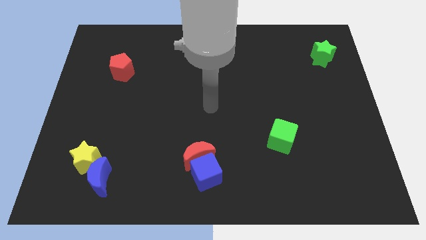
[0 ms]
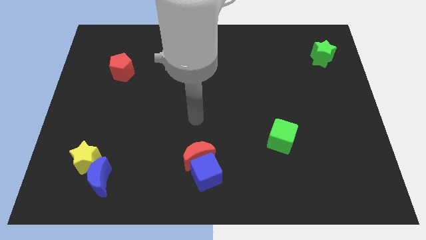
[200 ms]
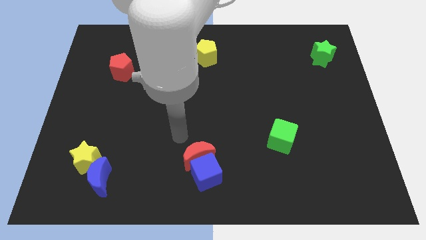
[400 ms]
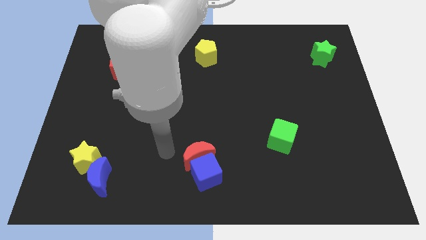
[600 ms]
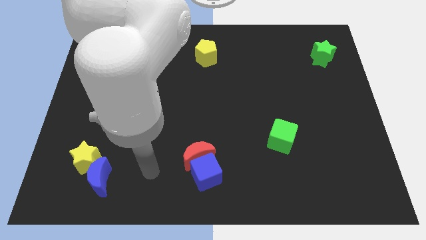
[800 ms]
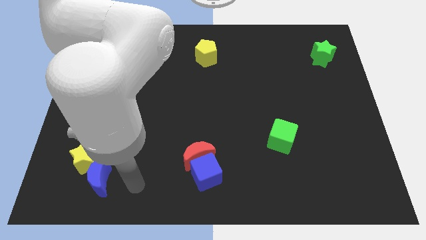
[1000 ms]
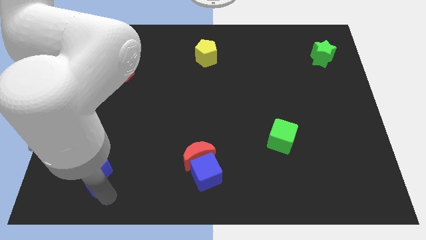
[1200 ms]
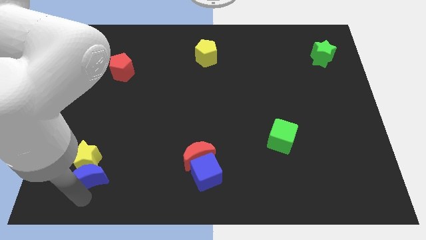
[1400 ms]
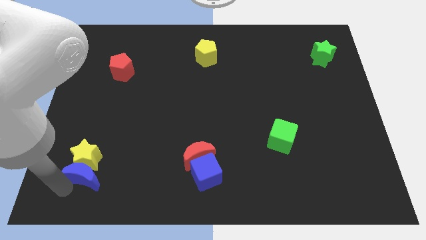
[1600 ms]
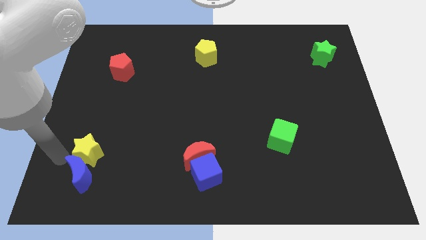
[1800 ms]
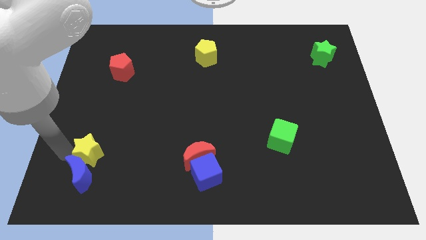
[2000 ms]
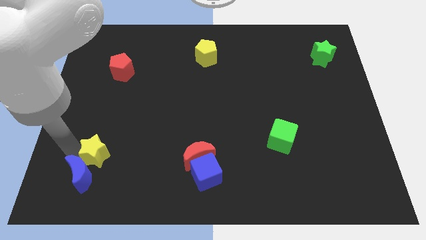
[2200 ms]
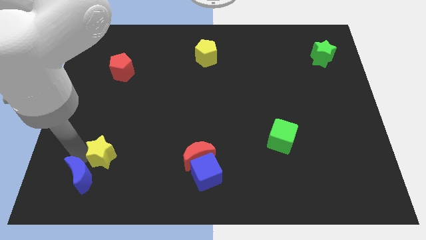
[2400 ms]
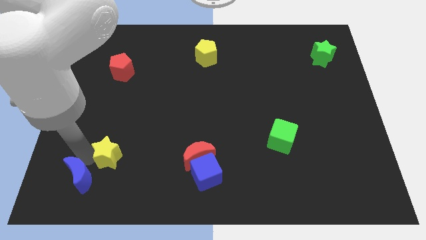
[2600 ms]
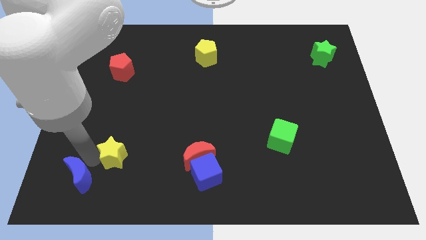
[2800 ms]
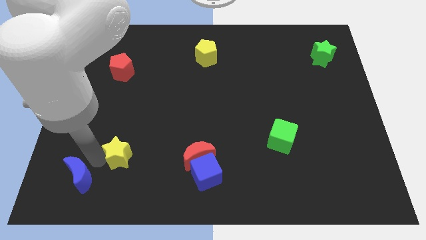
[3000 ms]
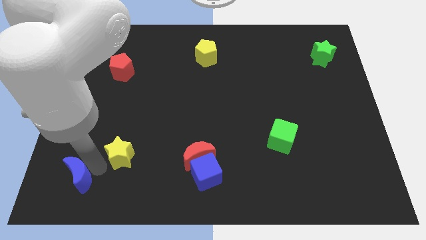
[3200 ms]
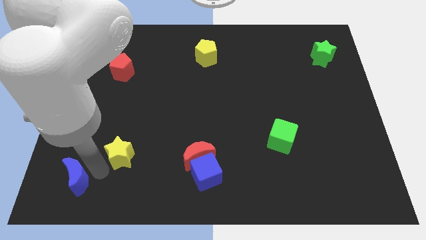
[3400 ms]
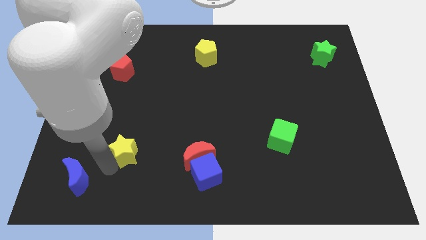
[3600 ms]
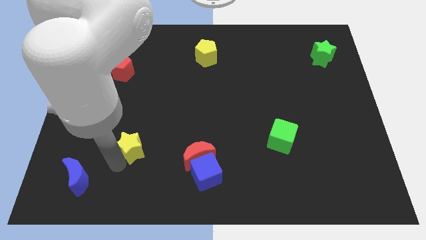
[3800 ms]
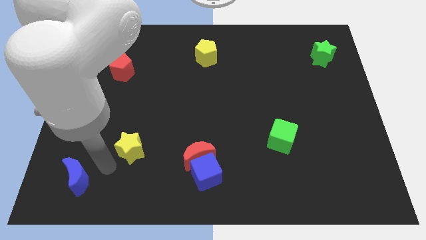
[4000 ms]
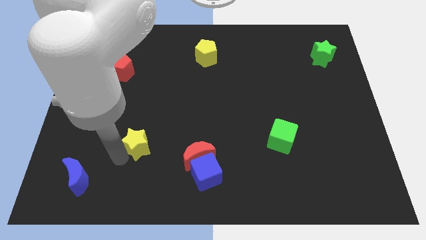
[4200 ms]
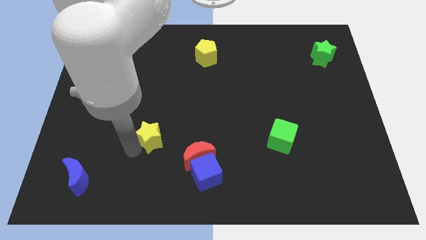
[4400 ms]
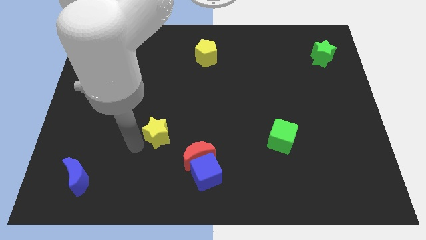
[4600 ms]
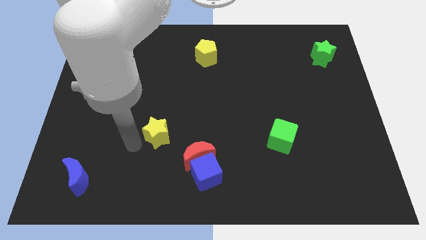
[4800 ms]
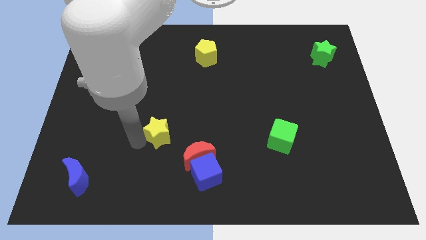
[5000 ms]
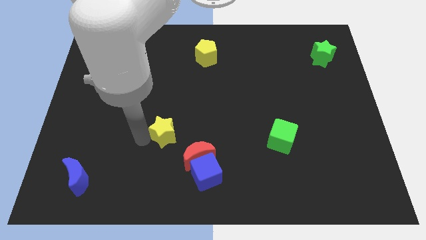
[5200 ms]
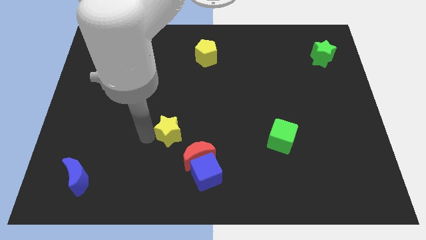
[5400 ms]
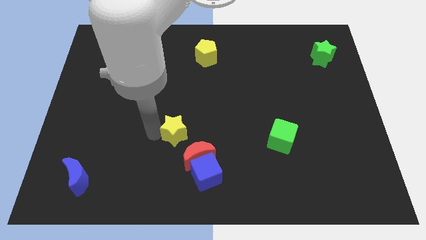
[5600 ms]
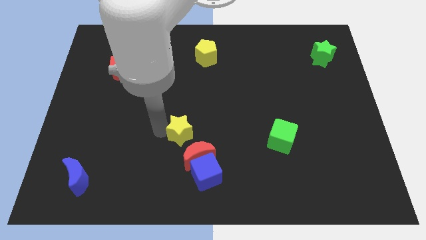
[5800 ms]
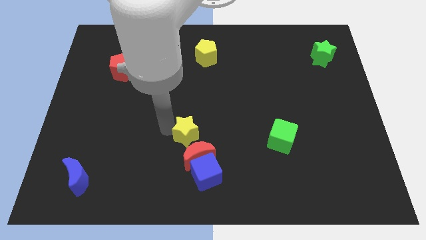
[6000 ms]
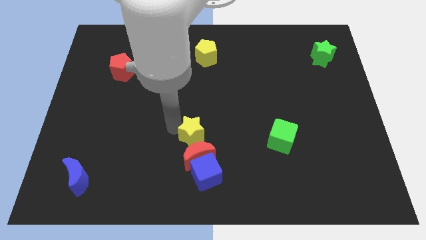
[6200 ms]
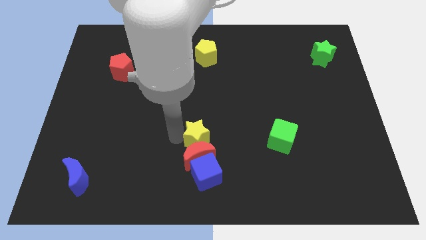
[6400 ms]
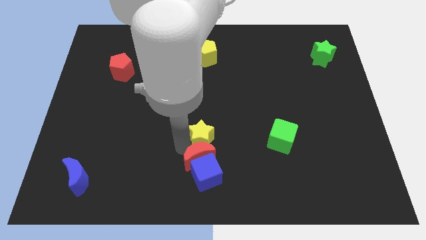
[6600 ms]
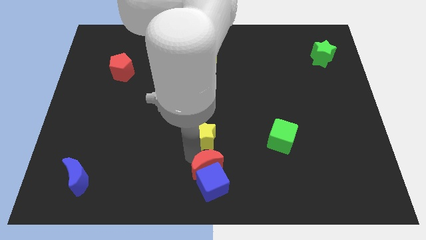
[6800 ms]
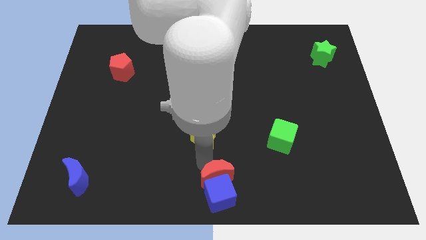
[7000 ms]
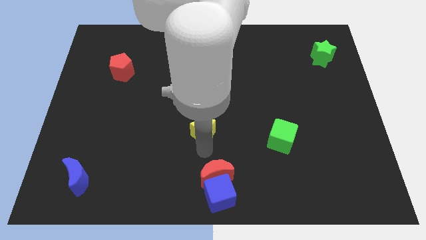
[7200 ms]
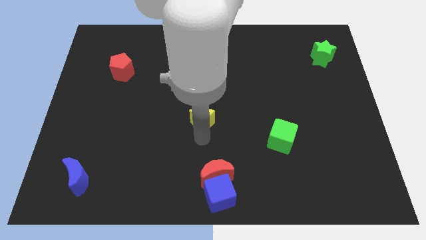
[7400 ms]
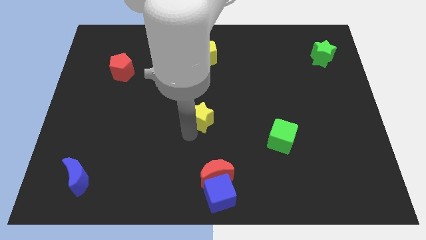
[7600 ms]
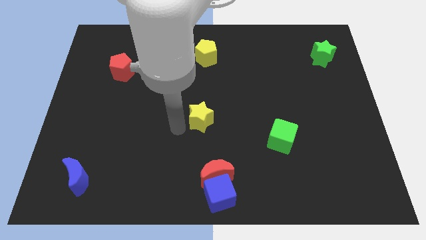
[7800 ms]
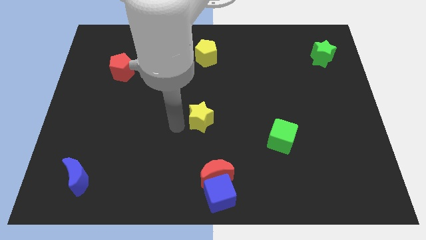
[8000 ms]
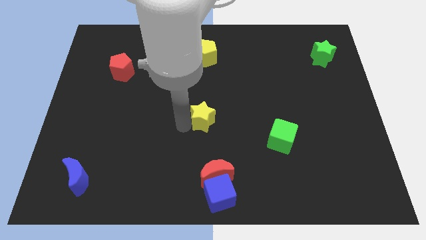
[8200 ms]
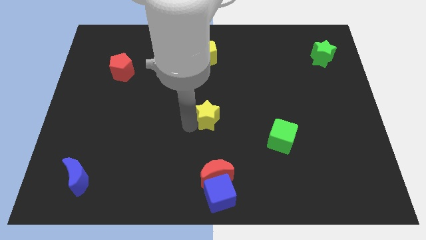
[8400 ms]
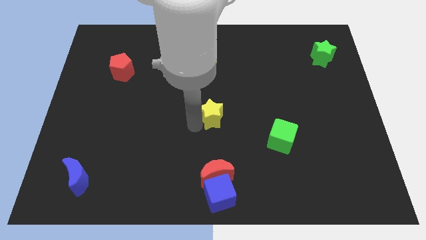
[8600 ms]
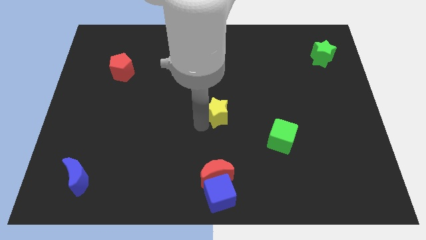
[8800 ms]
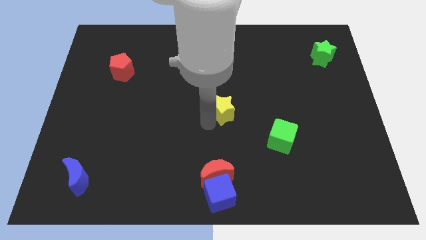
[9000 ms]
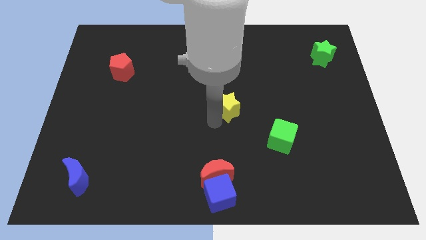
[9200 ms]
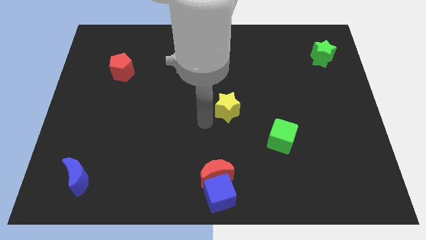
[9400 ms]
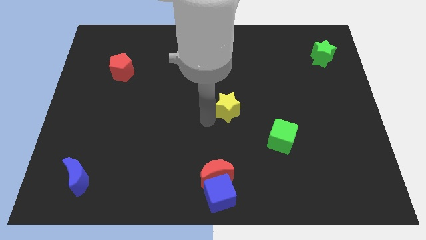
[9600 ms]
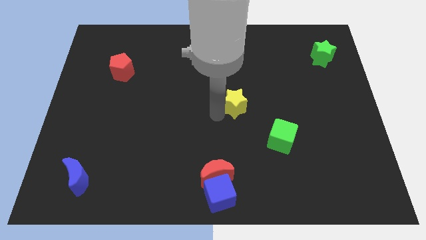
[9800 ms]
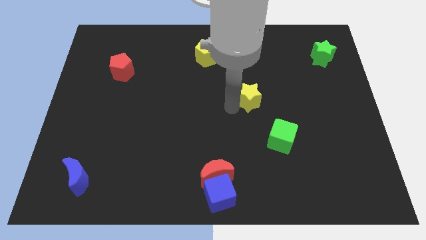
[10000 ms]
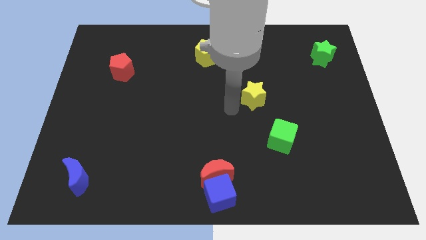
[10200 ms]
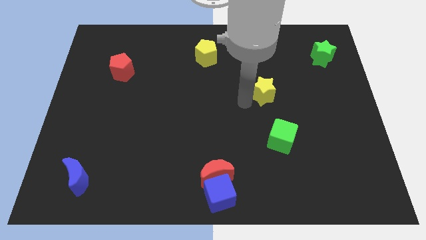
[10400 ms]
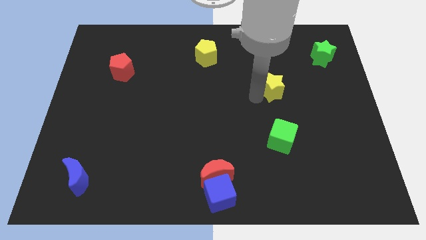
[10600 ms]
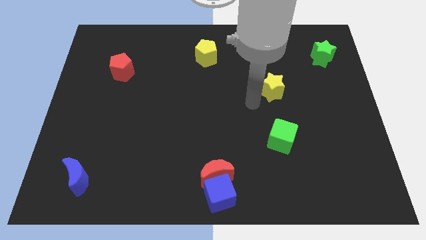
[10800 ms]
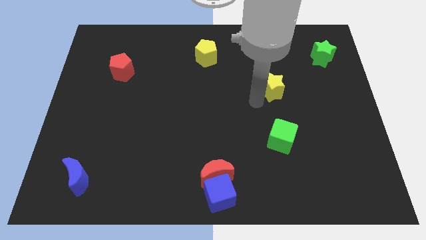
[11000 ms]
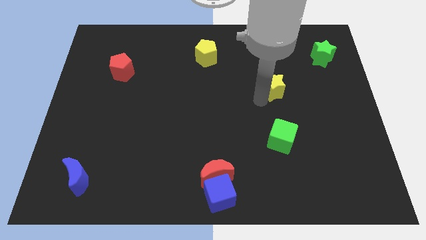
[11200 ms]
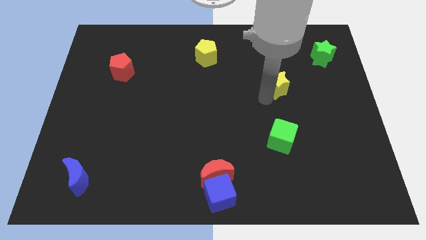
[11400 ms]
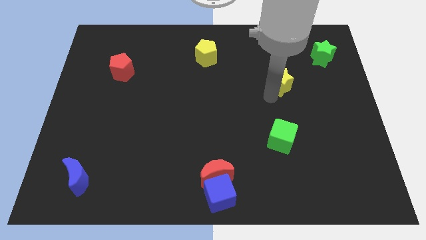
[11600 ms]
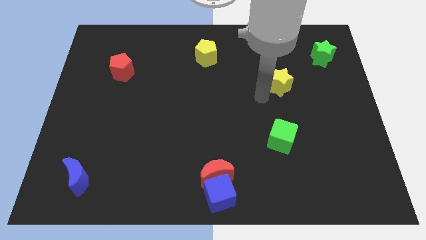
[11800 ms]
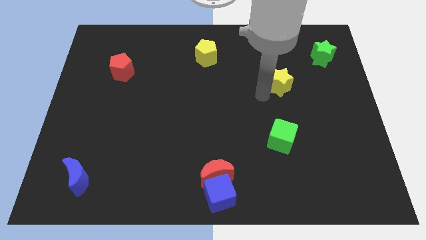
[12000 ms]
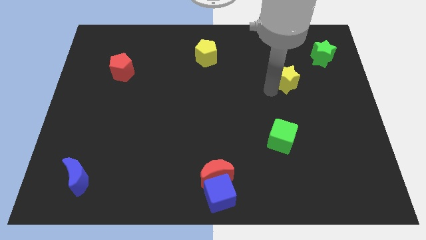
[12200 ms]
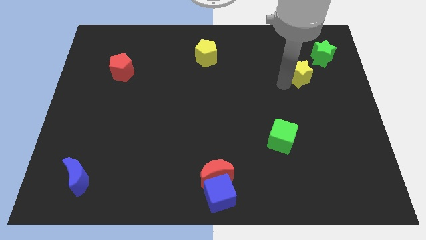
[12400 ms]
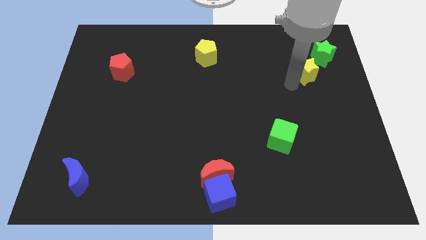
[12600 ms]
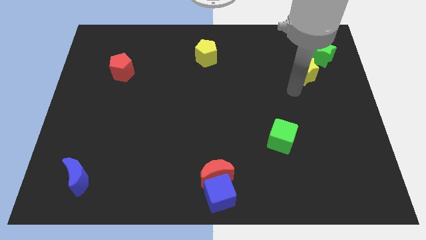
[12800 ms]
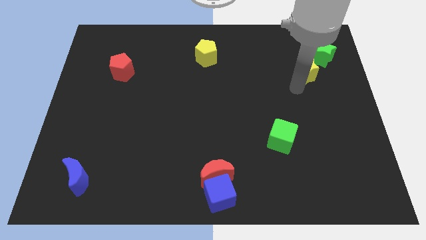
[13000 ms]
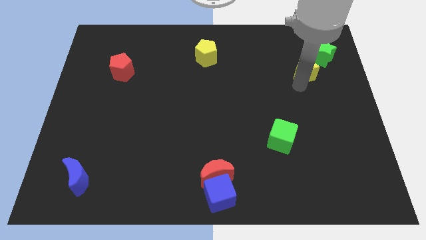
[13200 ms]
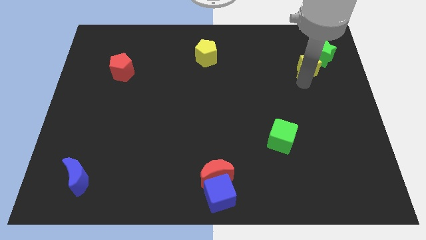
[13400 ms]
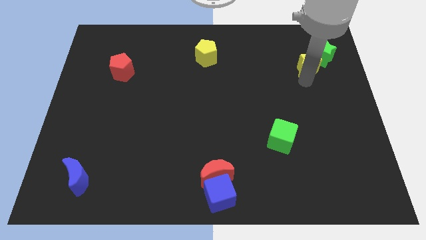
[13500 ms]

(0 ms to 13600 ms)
push the yellow star next to the green star
